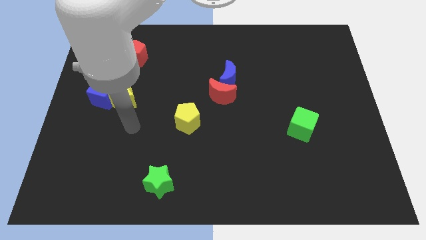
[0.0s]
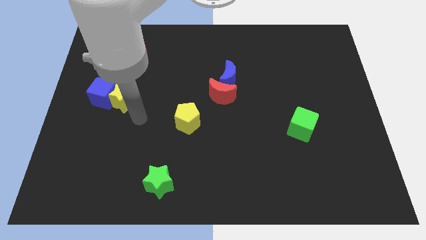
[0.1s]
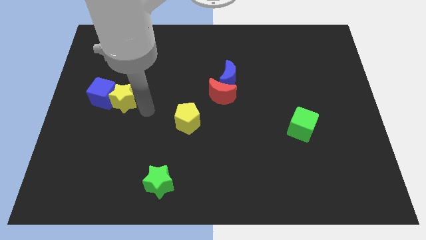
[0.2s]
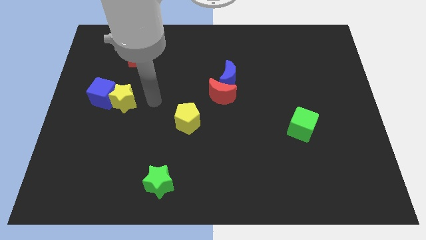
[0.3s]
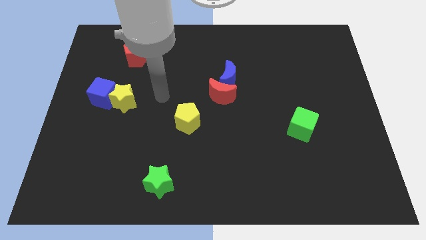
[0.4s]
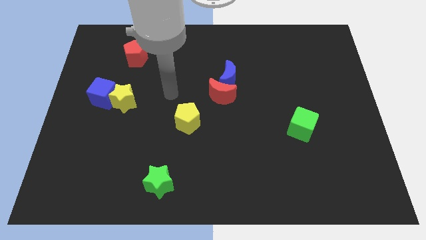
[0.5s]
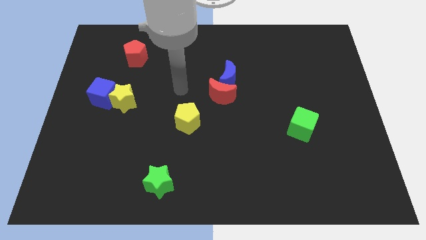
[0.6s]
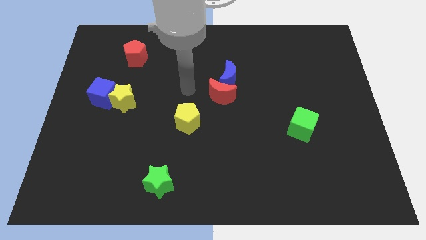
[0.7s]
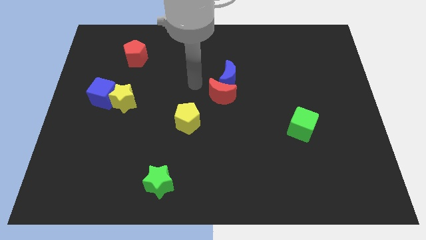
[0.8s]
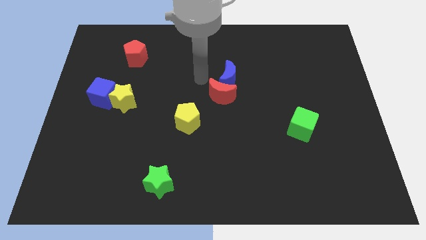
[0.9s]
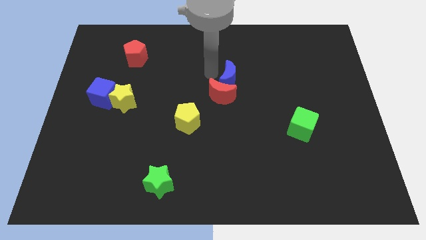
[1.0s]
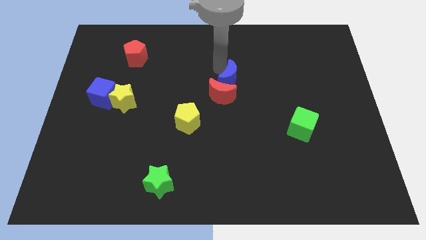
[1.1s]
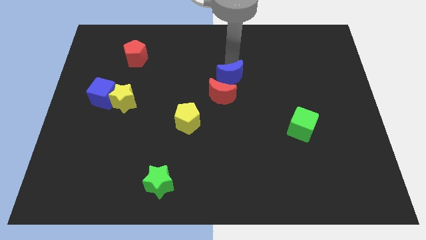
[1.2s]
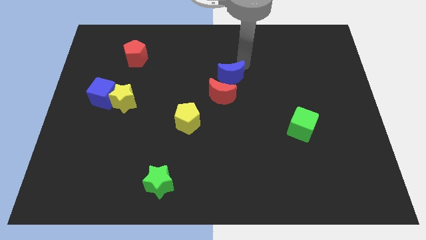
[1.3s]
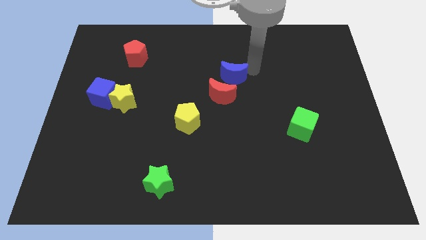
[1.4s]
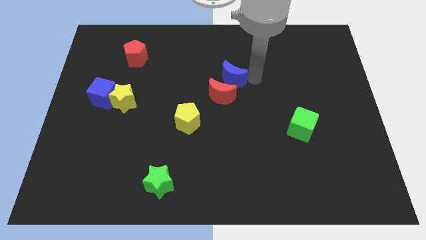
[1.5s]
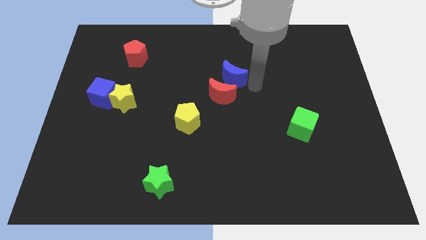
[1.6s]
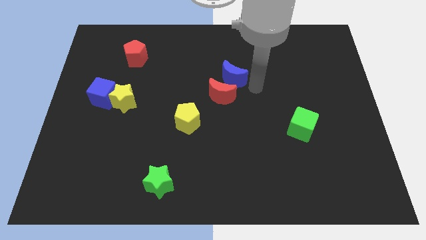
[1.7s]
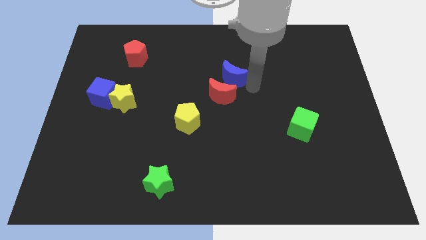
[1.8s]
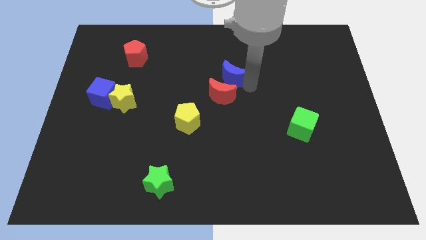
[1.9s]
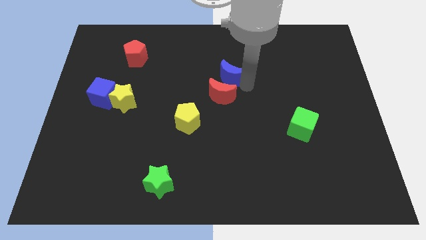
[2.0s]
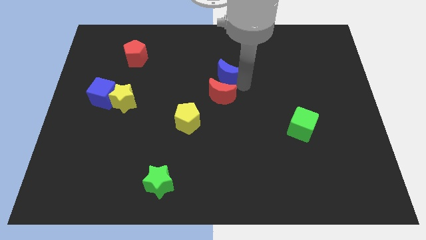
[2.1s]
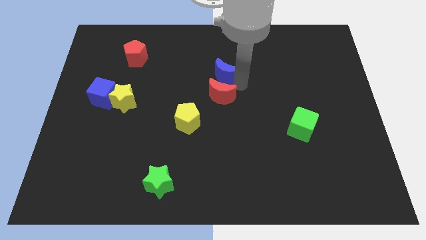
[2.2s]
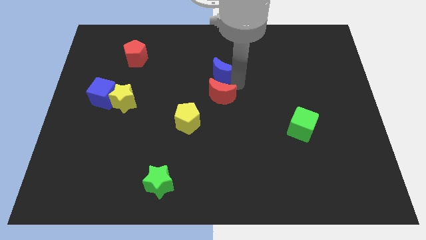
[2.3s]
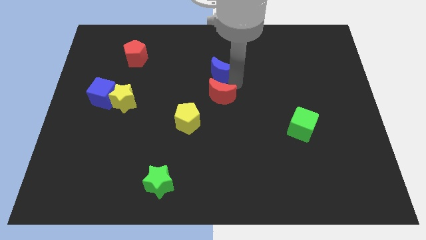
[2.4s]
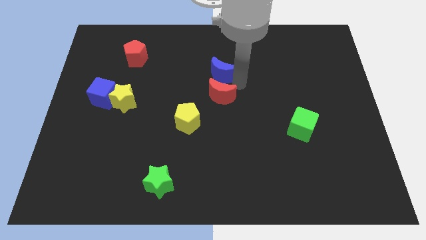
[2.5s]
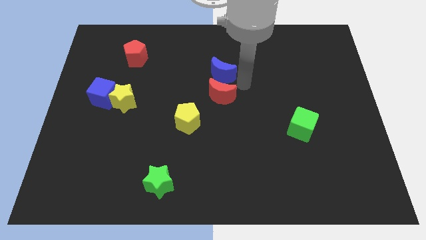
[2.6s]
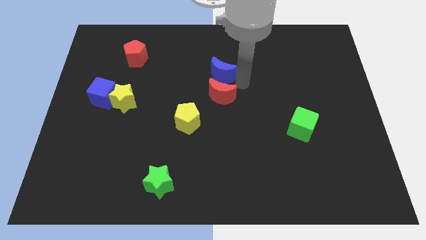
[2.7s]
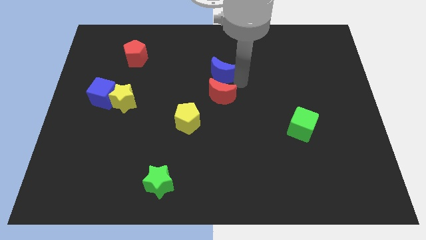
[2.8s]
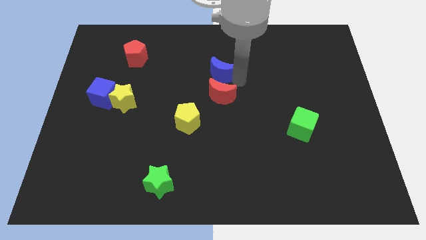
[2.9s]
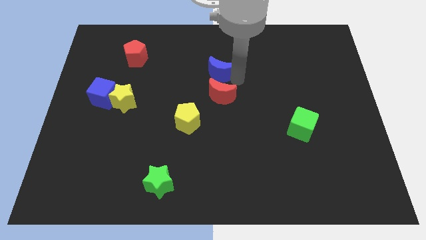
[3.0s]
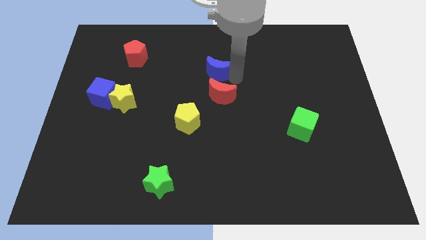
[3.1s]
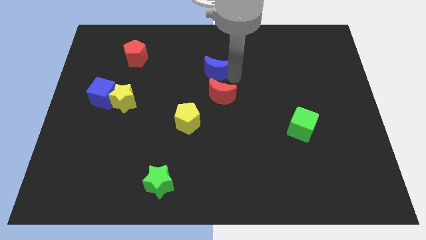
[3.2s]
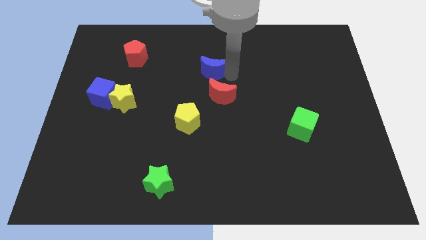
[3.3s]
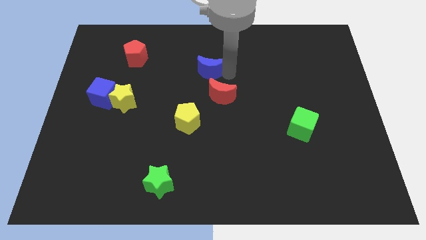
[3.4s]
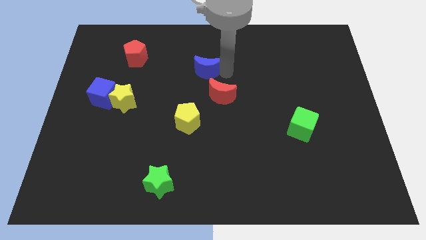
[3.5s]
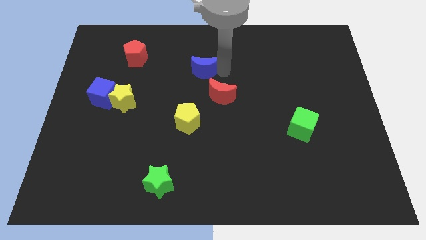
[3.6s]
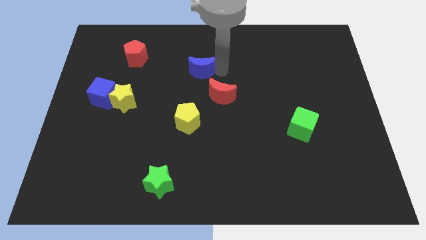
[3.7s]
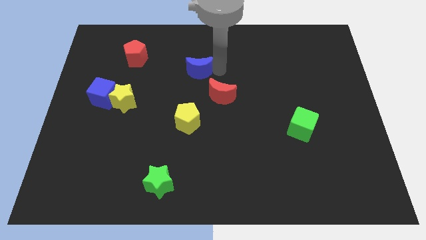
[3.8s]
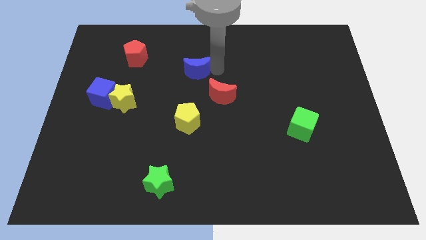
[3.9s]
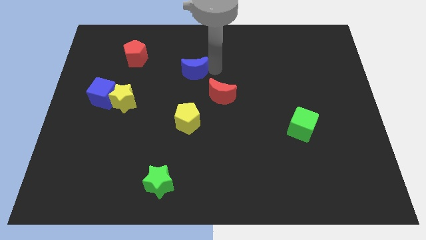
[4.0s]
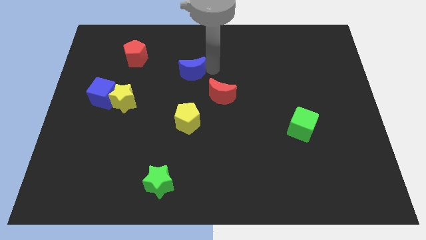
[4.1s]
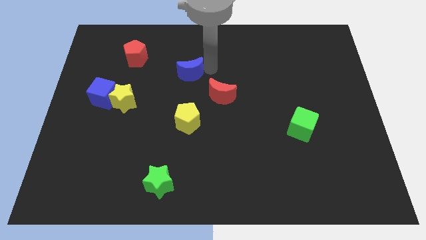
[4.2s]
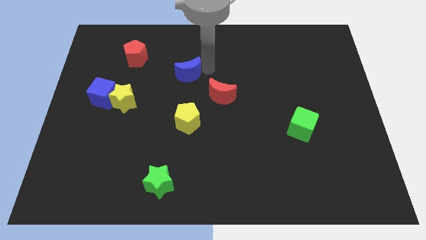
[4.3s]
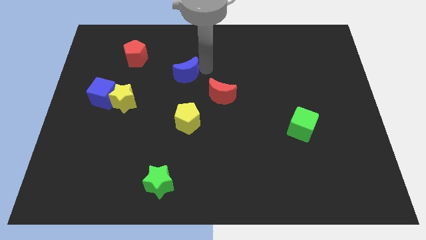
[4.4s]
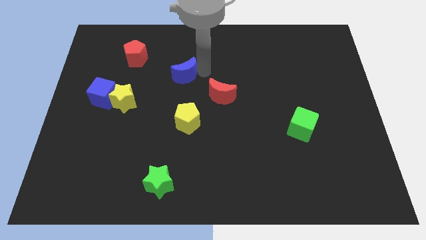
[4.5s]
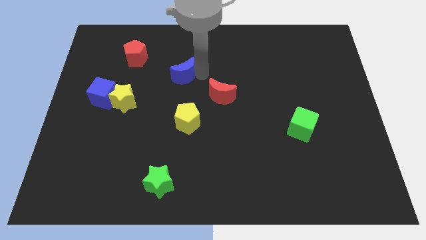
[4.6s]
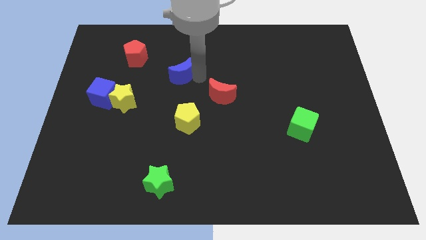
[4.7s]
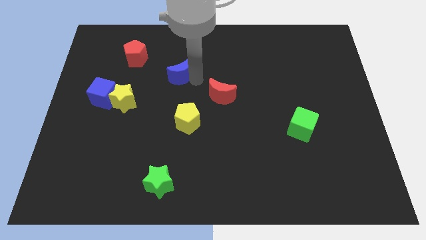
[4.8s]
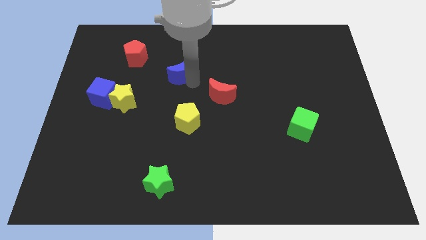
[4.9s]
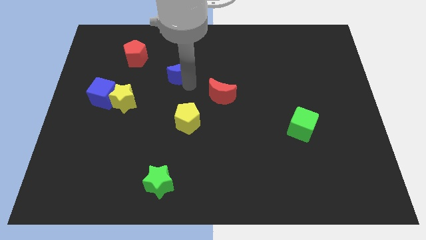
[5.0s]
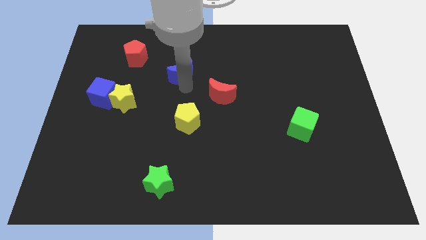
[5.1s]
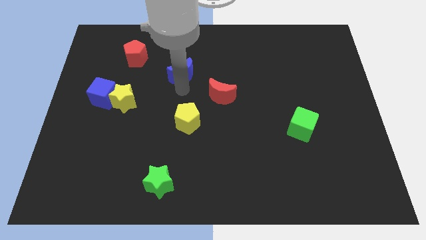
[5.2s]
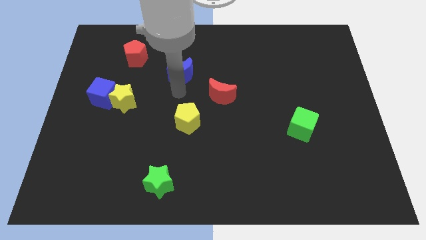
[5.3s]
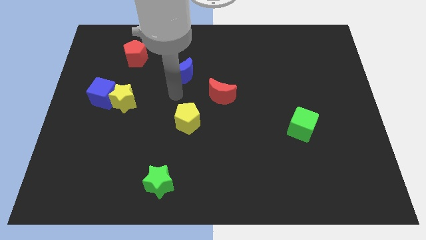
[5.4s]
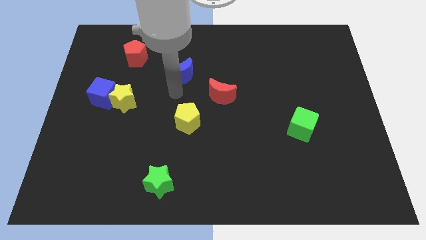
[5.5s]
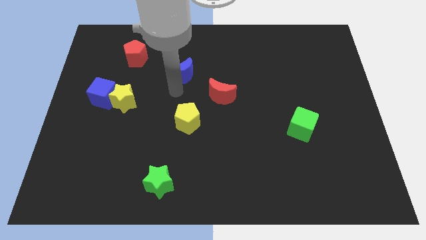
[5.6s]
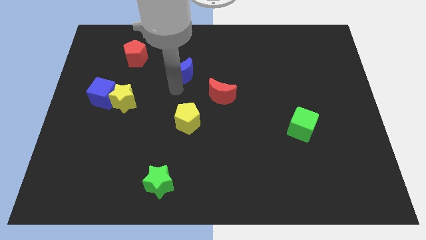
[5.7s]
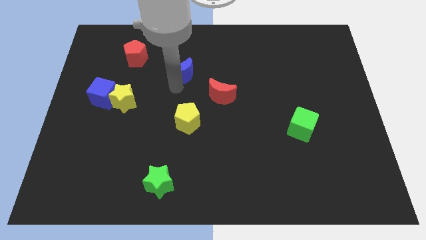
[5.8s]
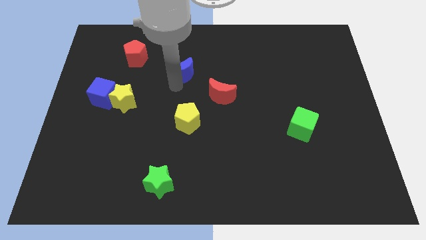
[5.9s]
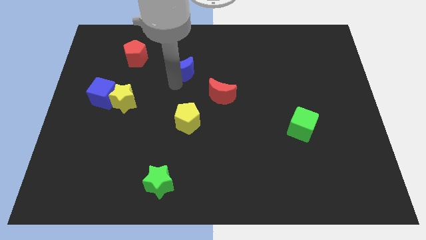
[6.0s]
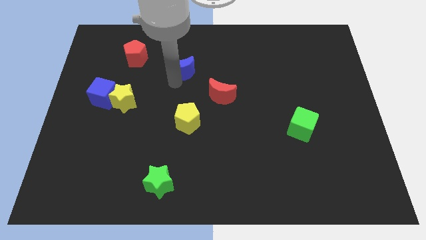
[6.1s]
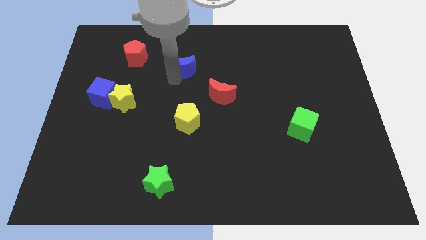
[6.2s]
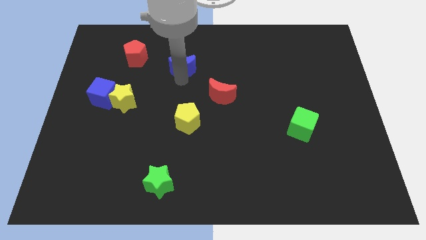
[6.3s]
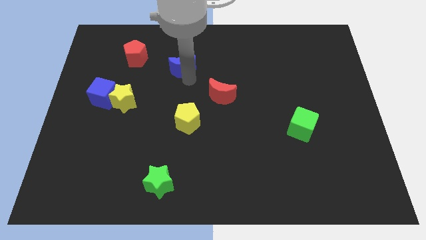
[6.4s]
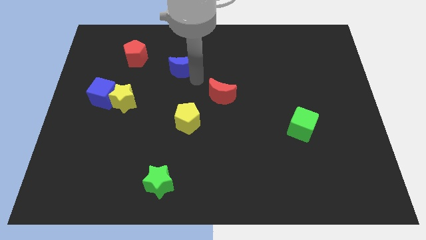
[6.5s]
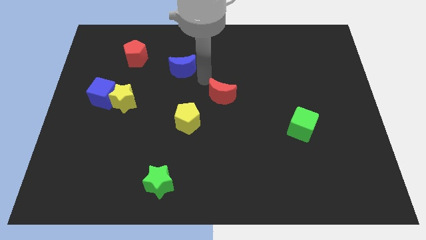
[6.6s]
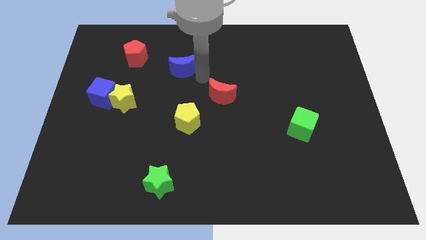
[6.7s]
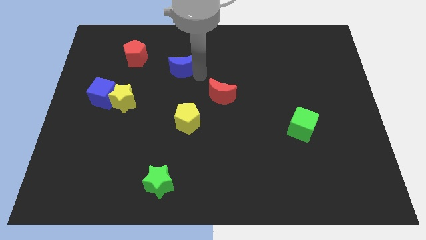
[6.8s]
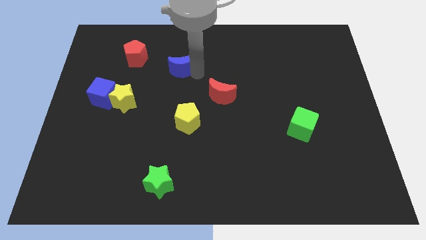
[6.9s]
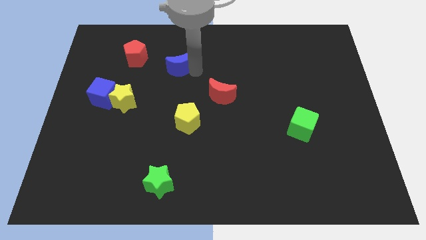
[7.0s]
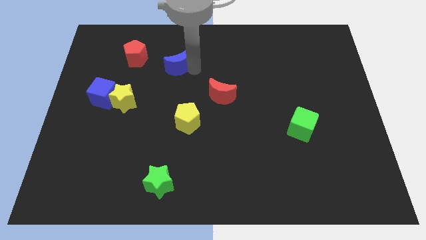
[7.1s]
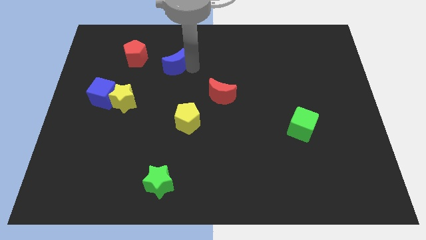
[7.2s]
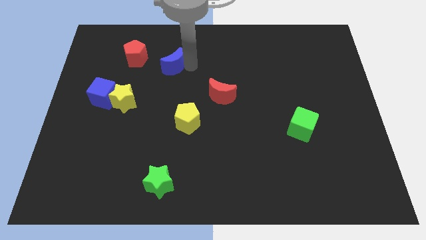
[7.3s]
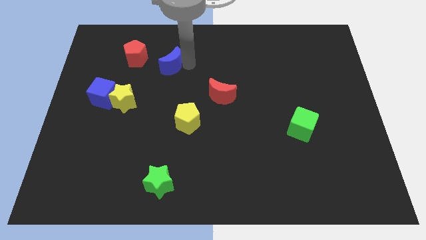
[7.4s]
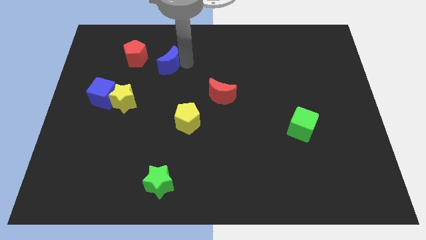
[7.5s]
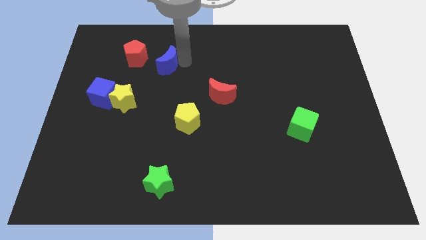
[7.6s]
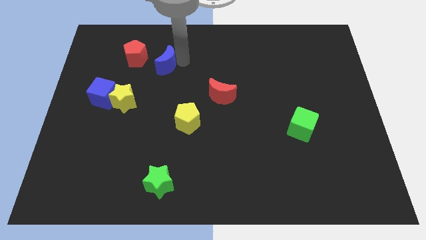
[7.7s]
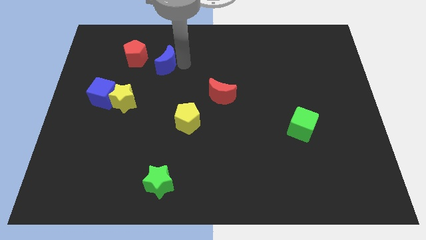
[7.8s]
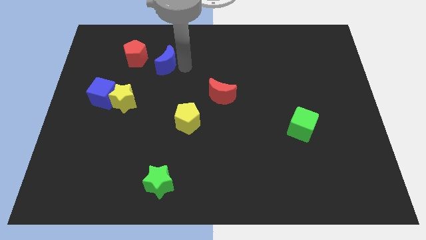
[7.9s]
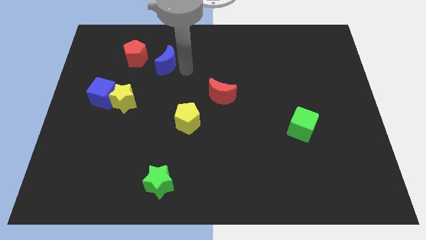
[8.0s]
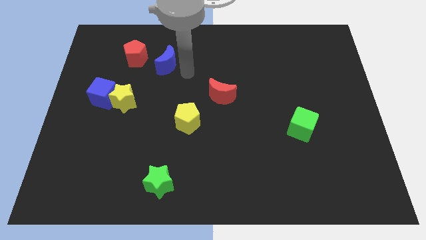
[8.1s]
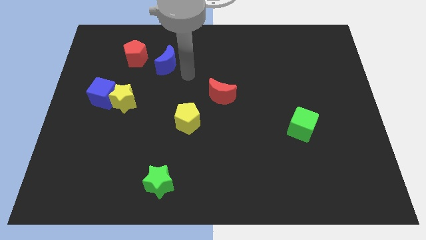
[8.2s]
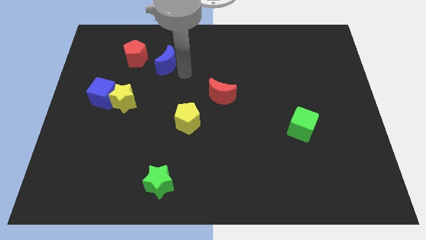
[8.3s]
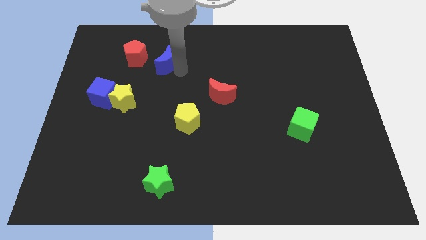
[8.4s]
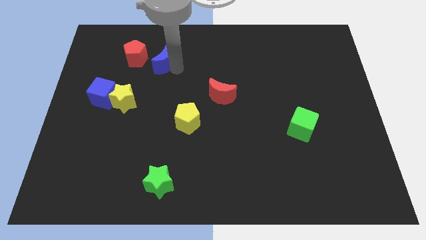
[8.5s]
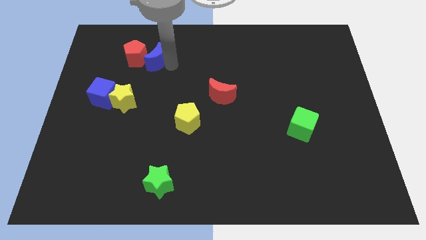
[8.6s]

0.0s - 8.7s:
move the blue moon towards the red pentagon
